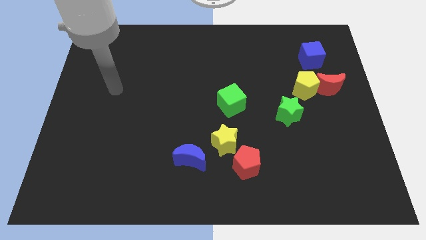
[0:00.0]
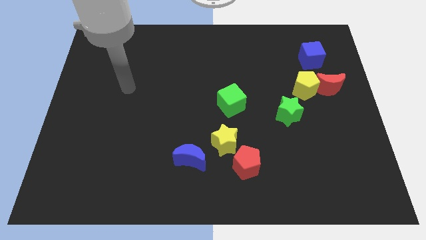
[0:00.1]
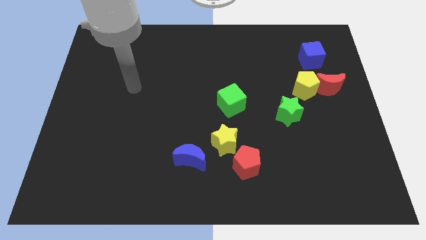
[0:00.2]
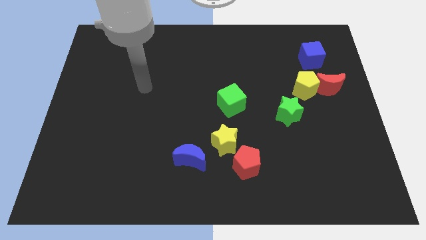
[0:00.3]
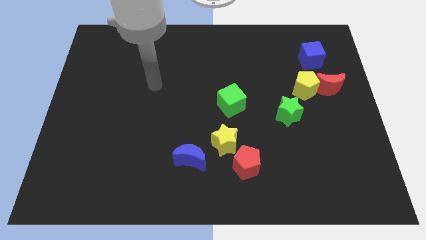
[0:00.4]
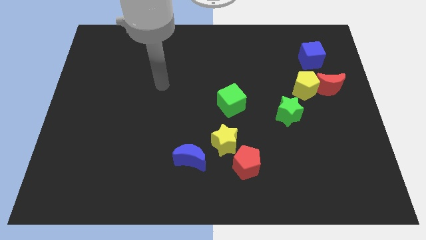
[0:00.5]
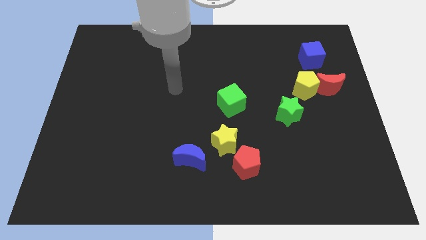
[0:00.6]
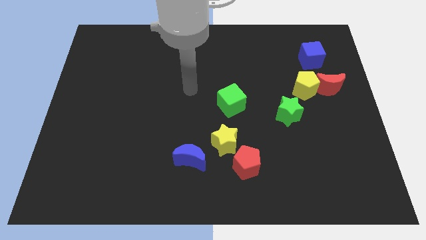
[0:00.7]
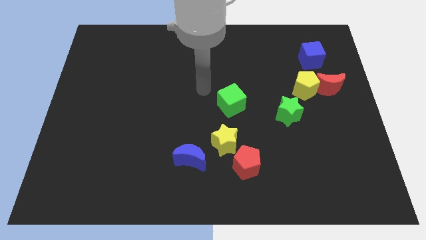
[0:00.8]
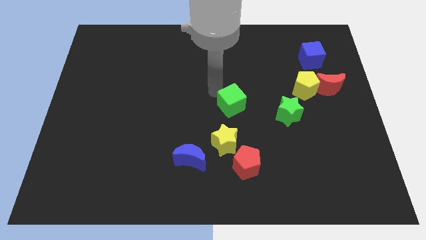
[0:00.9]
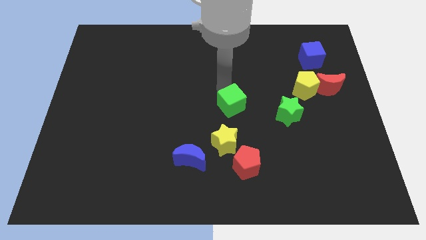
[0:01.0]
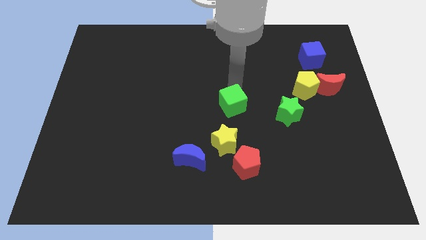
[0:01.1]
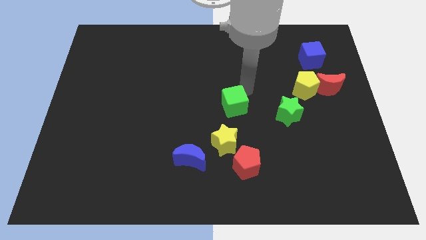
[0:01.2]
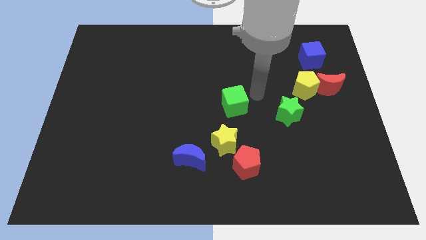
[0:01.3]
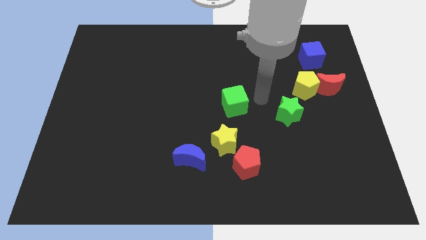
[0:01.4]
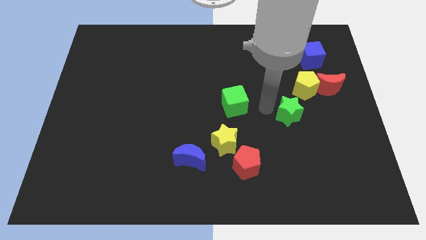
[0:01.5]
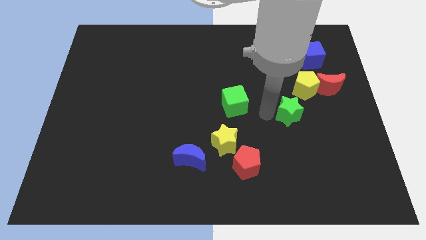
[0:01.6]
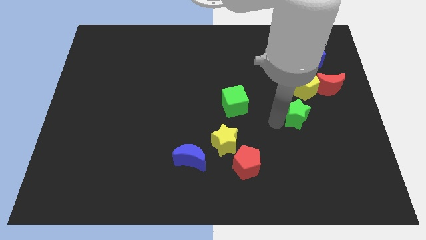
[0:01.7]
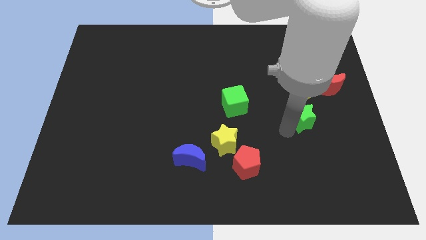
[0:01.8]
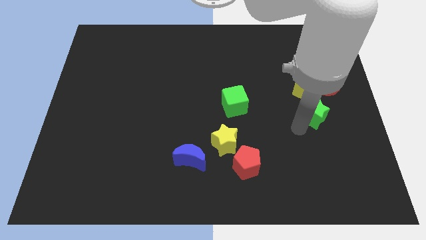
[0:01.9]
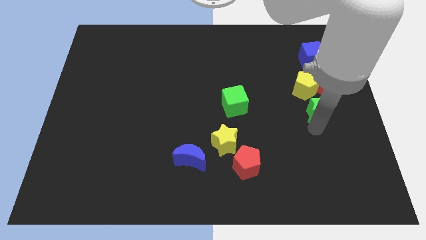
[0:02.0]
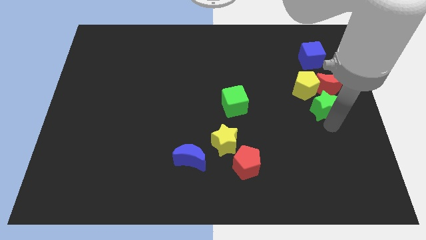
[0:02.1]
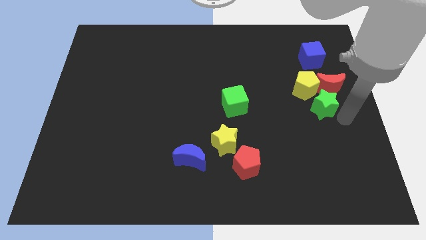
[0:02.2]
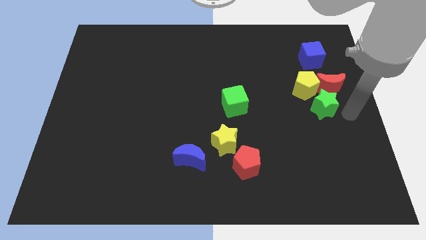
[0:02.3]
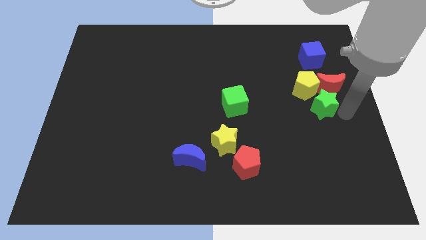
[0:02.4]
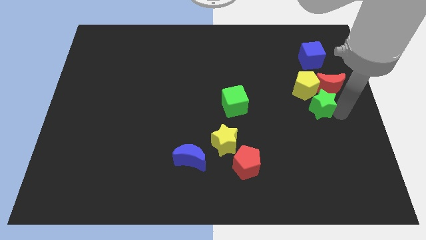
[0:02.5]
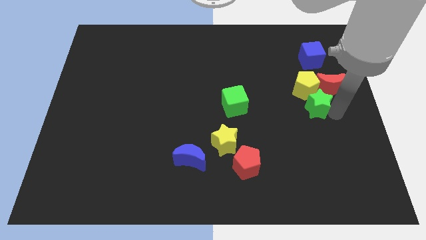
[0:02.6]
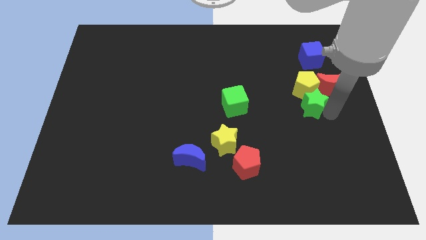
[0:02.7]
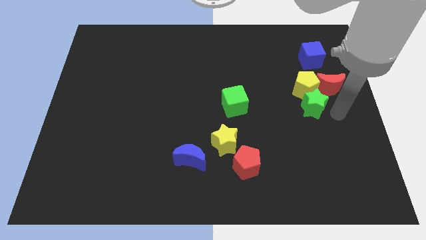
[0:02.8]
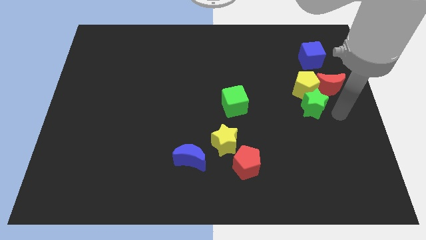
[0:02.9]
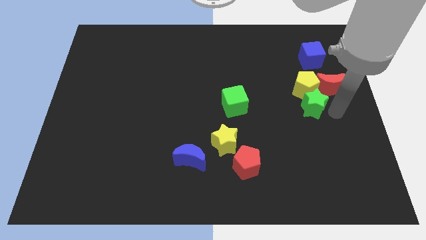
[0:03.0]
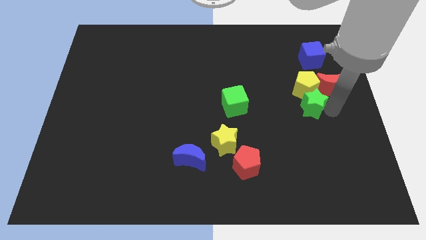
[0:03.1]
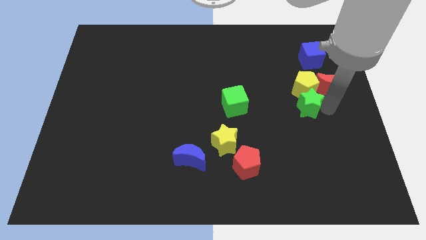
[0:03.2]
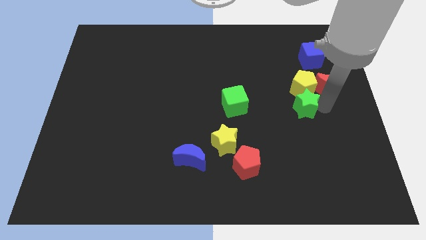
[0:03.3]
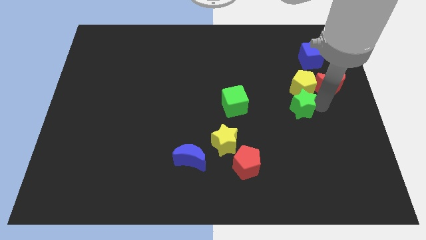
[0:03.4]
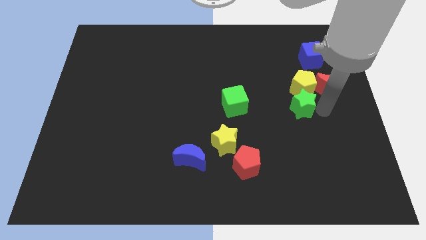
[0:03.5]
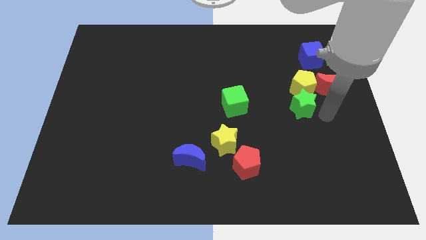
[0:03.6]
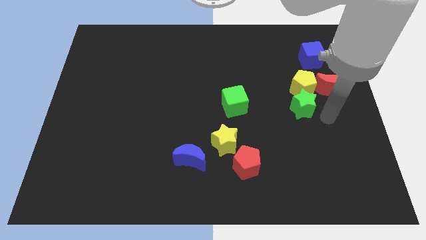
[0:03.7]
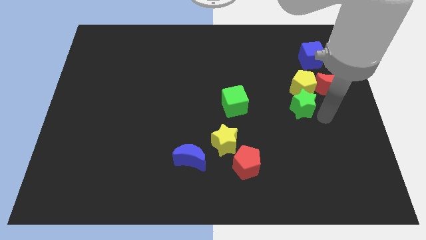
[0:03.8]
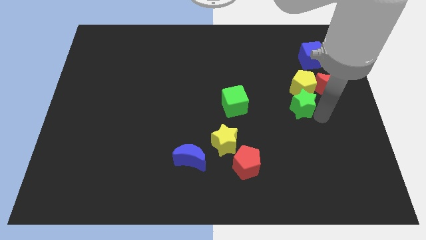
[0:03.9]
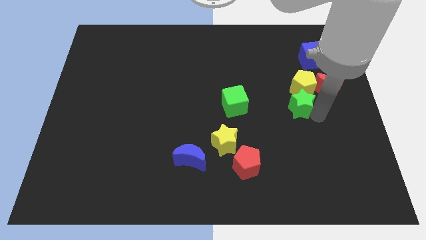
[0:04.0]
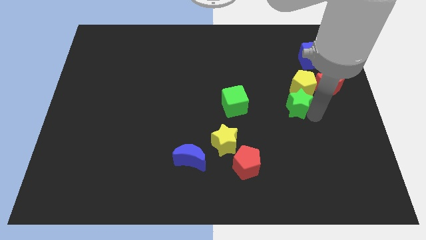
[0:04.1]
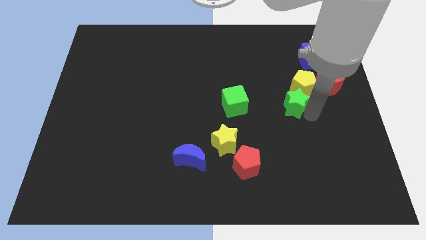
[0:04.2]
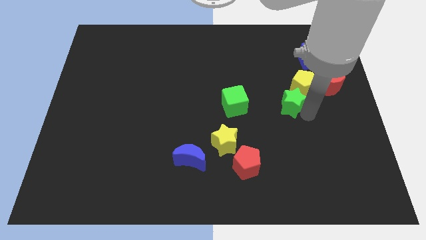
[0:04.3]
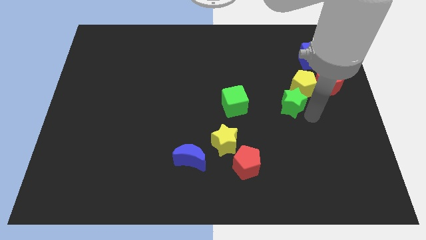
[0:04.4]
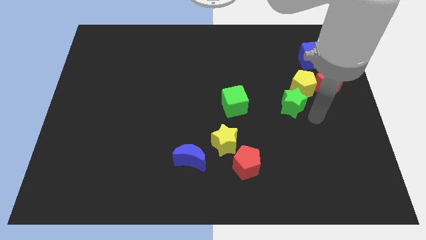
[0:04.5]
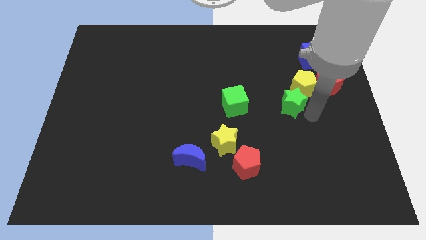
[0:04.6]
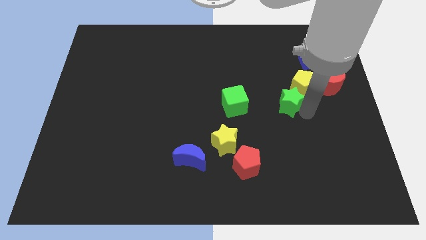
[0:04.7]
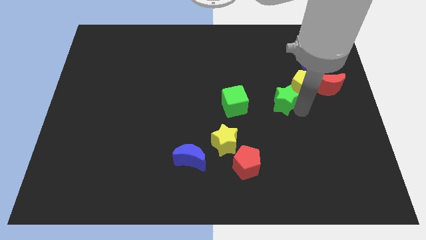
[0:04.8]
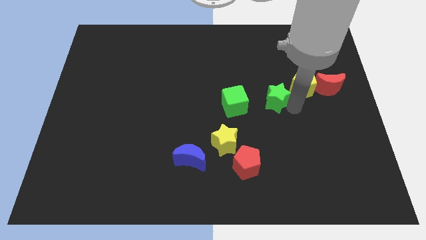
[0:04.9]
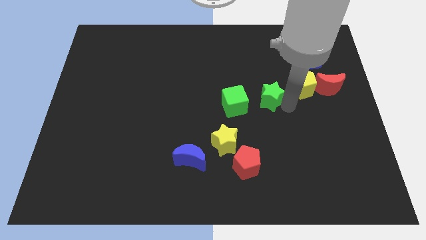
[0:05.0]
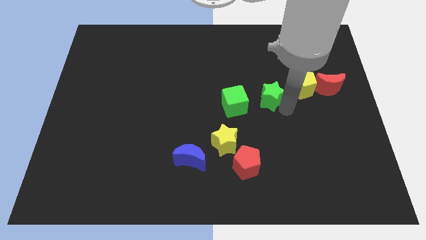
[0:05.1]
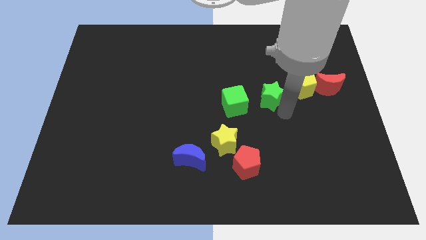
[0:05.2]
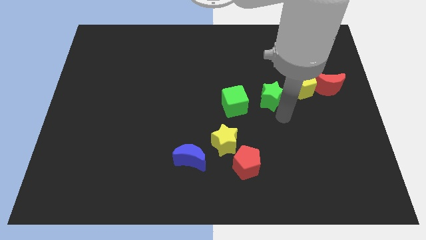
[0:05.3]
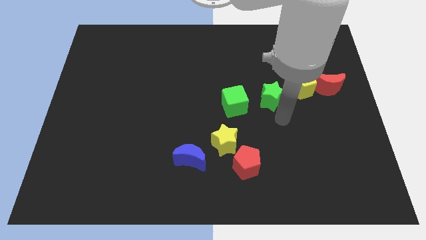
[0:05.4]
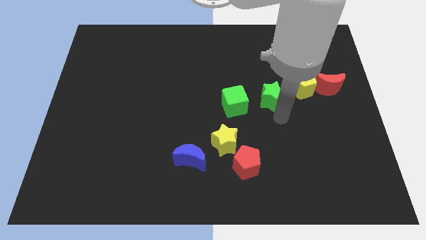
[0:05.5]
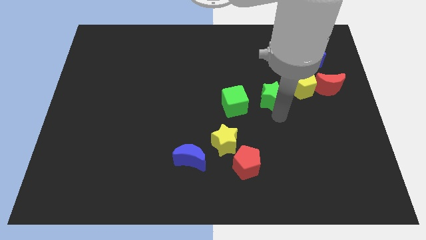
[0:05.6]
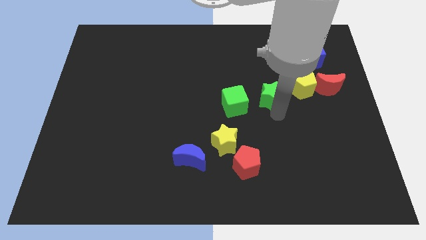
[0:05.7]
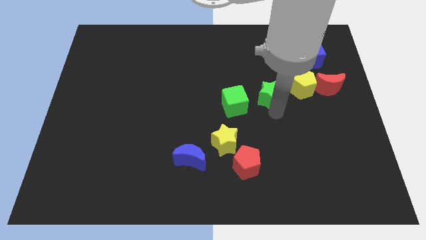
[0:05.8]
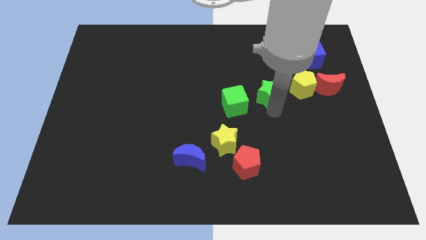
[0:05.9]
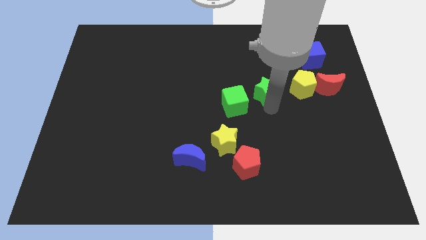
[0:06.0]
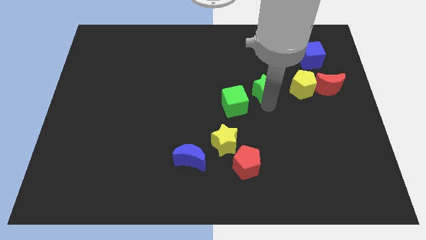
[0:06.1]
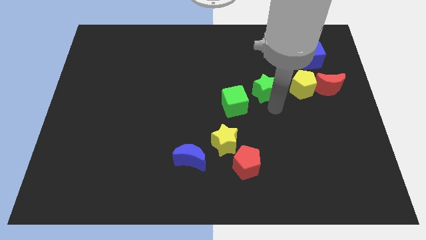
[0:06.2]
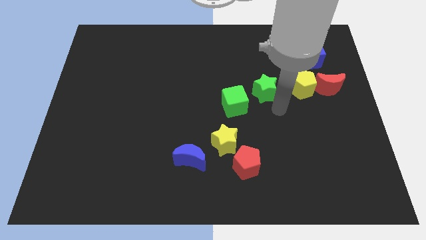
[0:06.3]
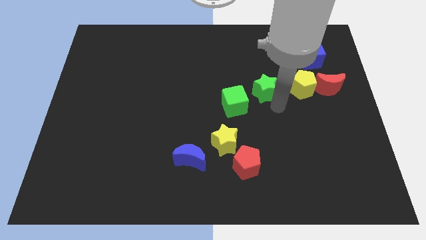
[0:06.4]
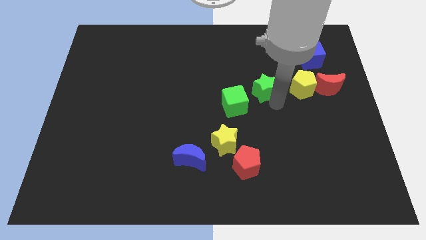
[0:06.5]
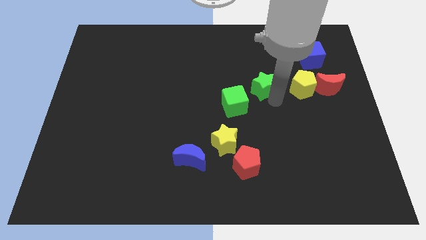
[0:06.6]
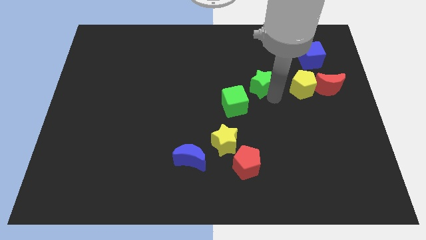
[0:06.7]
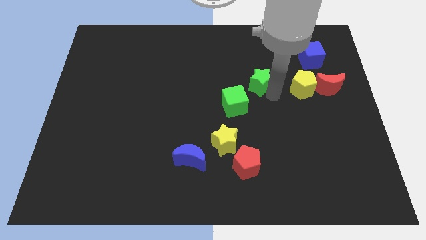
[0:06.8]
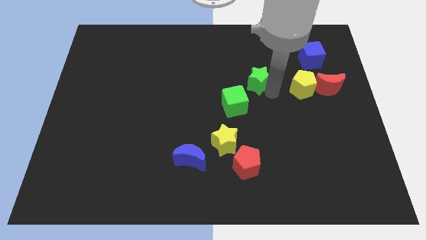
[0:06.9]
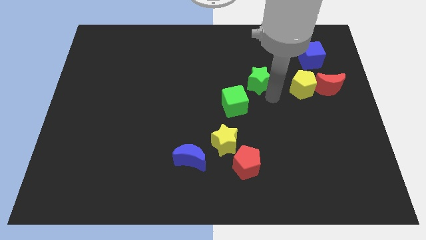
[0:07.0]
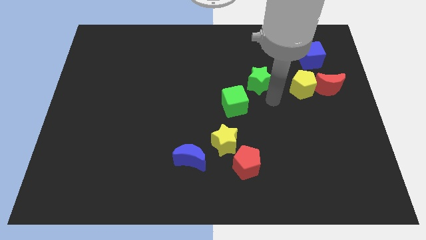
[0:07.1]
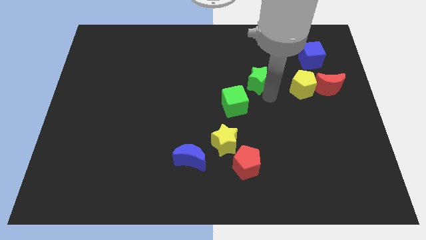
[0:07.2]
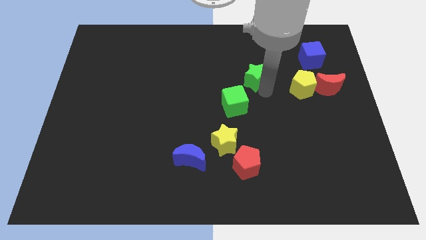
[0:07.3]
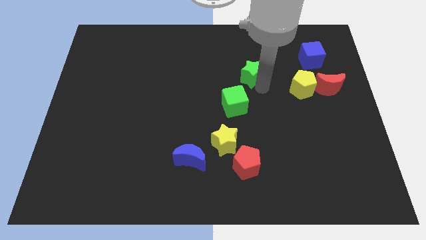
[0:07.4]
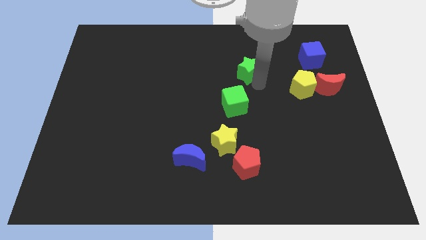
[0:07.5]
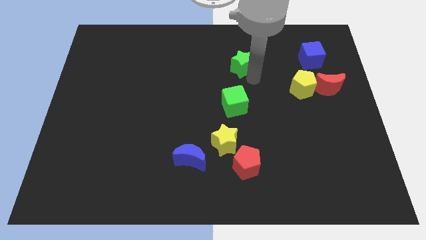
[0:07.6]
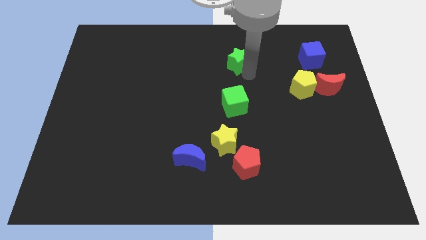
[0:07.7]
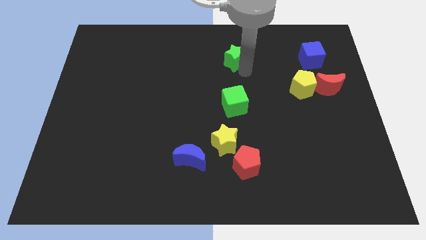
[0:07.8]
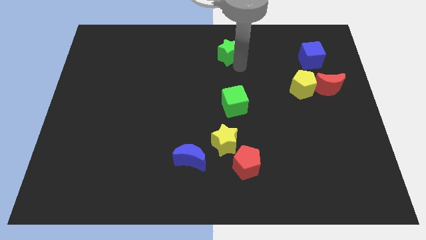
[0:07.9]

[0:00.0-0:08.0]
push the green star to the top side
